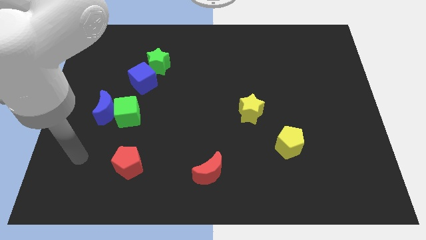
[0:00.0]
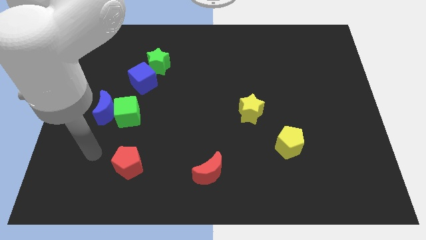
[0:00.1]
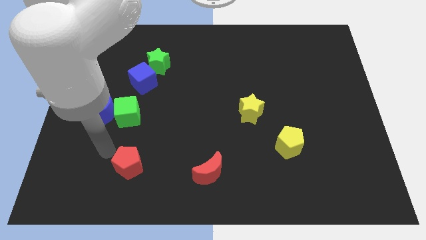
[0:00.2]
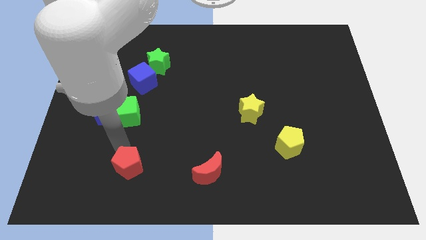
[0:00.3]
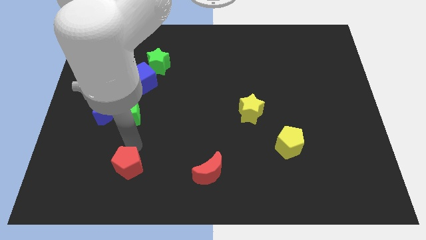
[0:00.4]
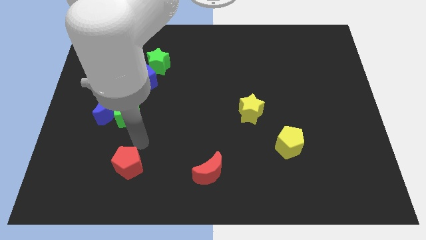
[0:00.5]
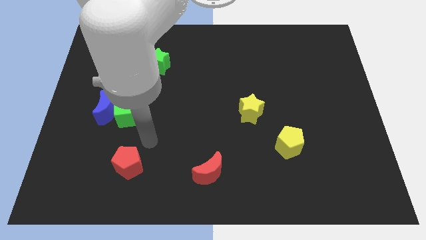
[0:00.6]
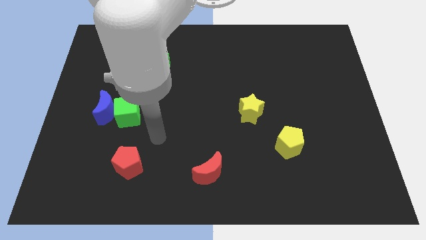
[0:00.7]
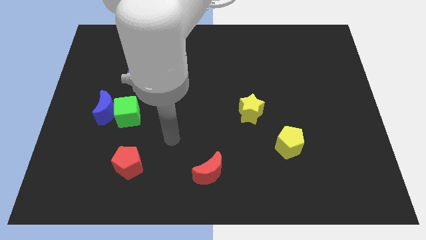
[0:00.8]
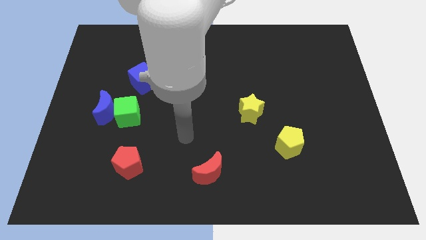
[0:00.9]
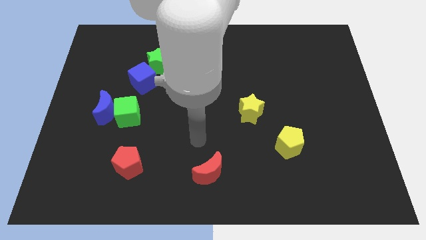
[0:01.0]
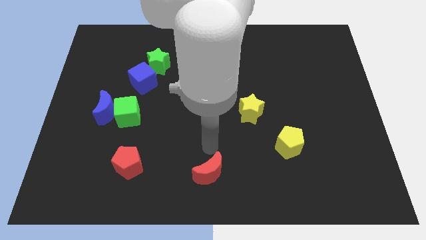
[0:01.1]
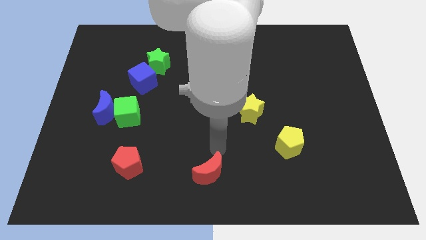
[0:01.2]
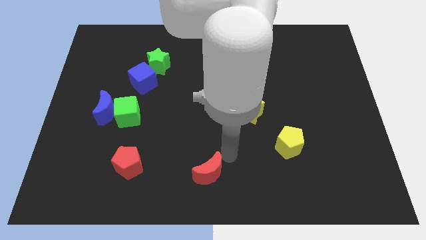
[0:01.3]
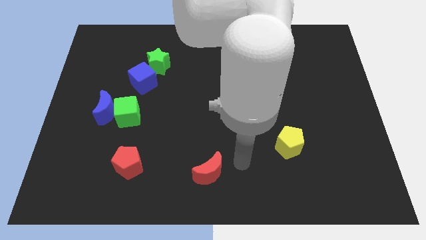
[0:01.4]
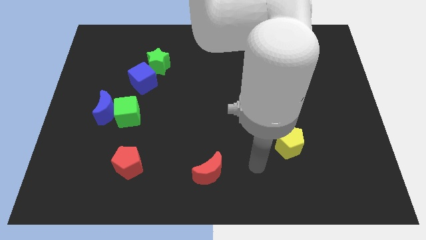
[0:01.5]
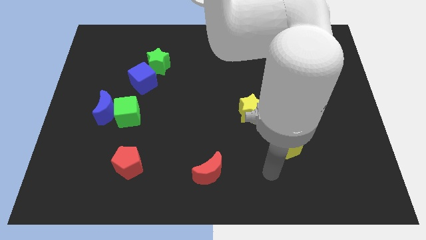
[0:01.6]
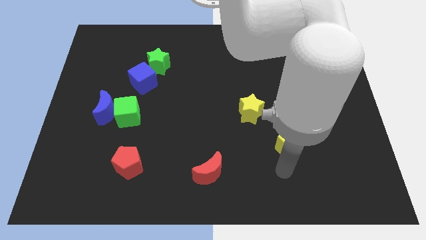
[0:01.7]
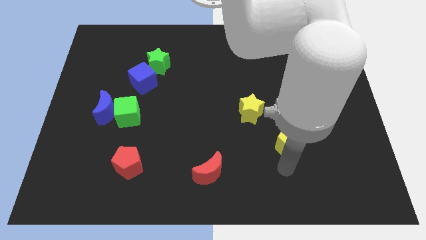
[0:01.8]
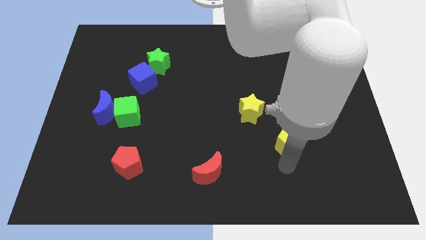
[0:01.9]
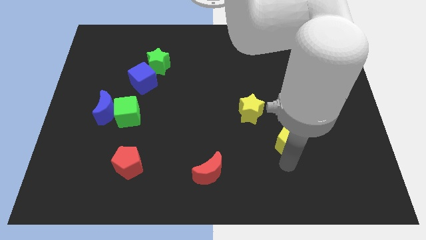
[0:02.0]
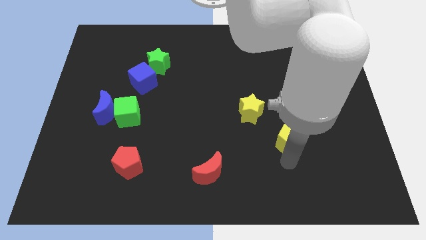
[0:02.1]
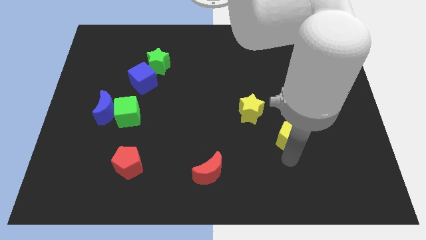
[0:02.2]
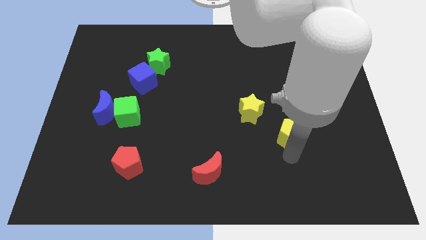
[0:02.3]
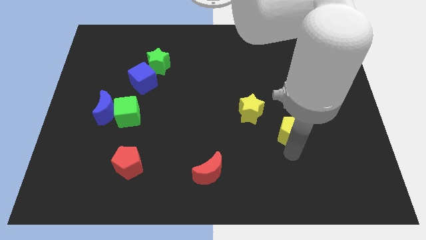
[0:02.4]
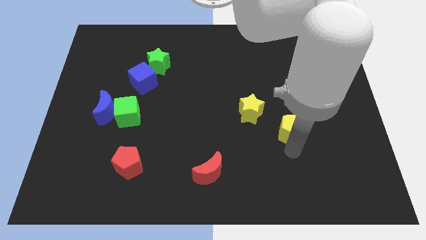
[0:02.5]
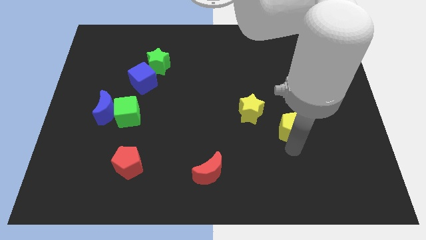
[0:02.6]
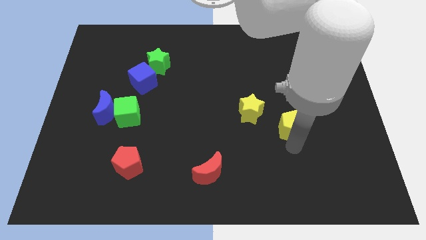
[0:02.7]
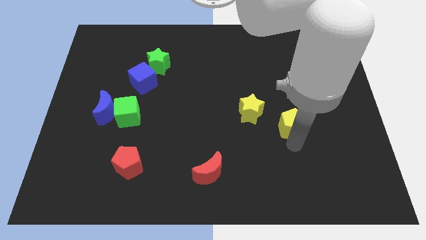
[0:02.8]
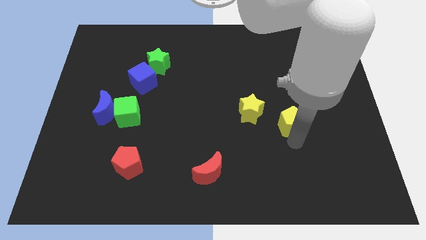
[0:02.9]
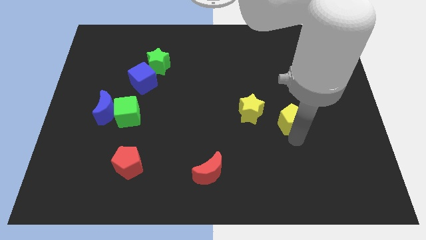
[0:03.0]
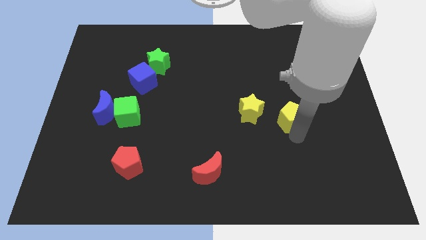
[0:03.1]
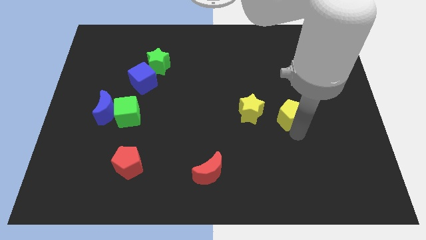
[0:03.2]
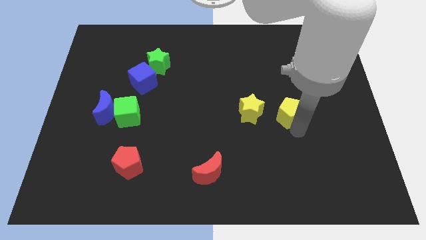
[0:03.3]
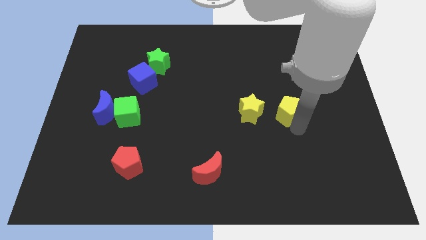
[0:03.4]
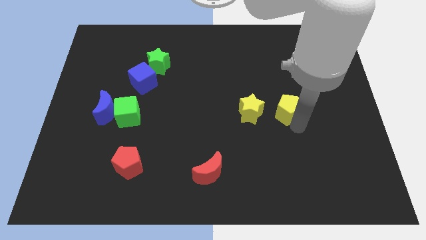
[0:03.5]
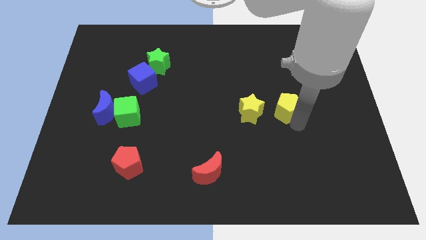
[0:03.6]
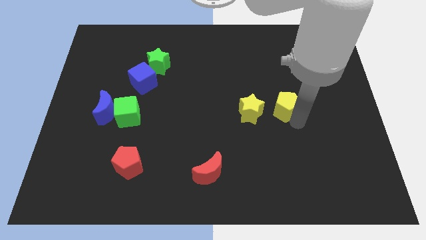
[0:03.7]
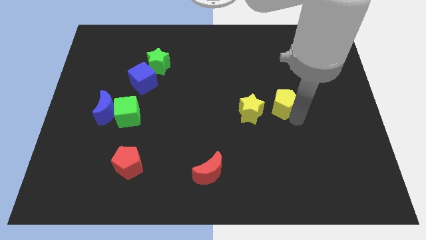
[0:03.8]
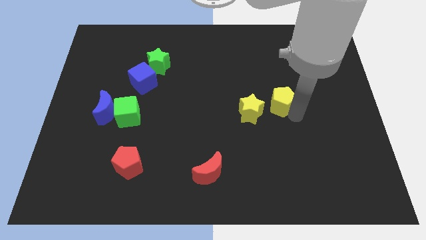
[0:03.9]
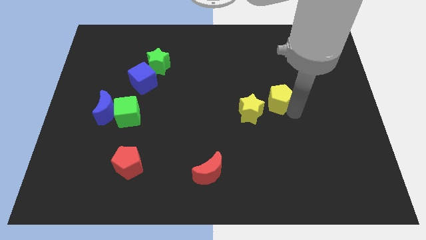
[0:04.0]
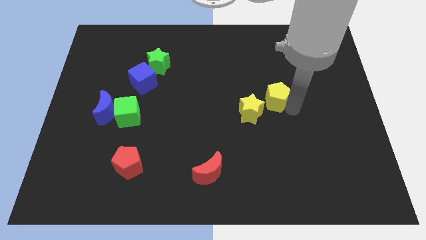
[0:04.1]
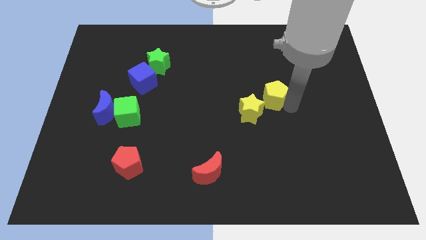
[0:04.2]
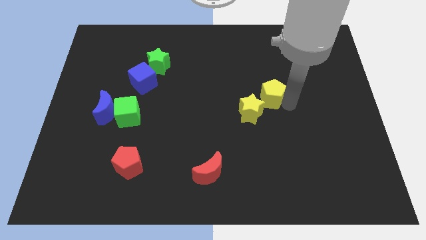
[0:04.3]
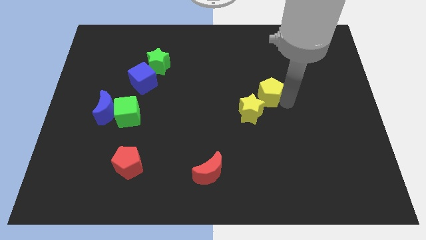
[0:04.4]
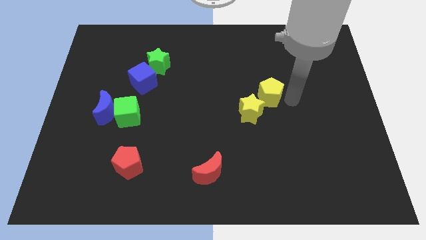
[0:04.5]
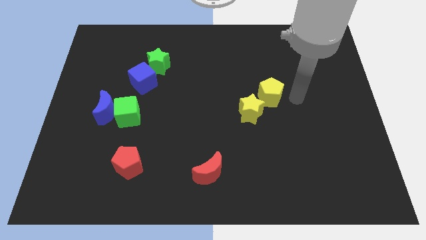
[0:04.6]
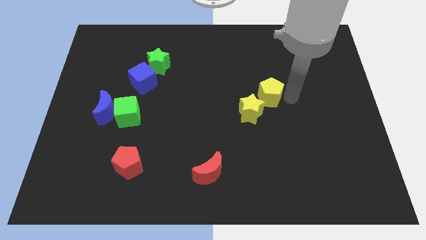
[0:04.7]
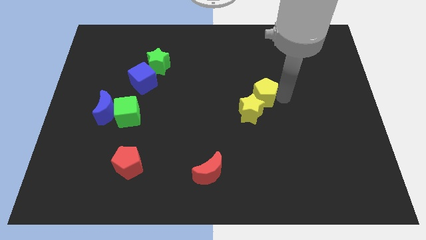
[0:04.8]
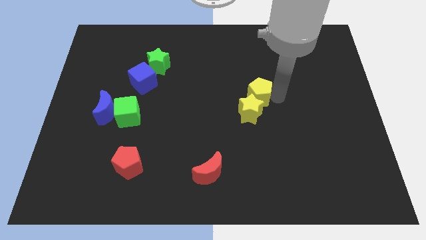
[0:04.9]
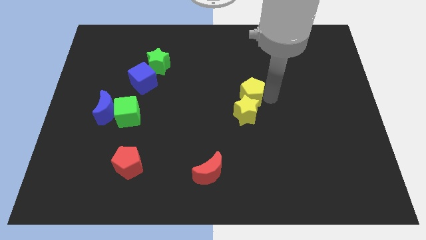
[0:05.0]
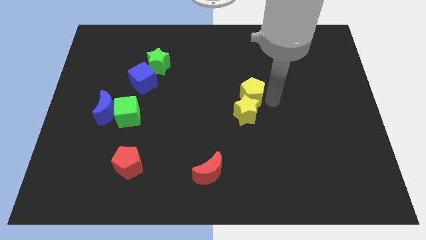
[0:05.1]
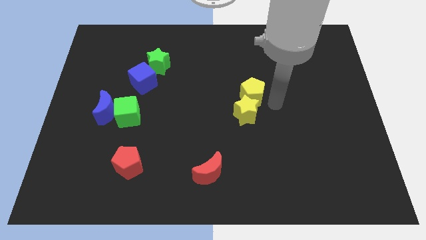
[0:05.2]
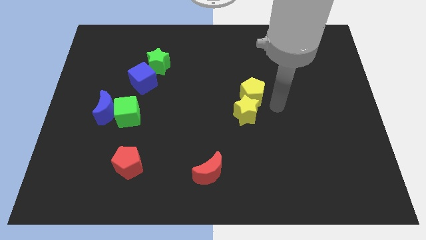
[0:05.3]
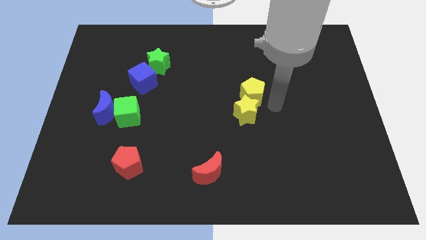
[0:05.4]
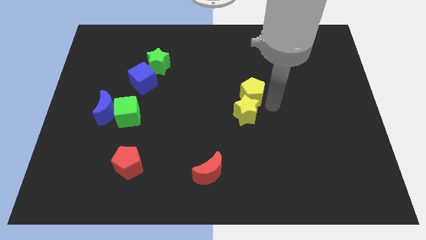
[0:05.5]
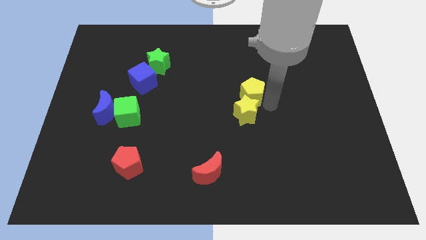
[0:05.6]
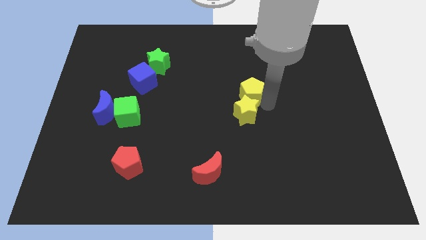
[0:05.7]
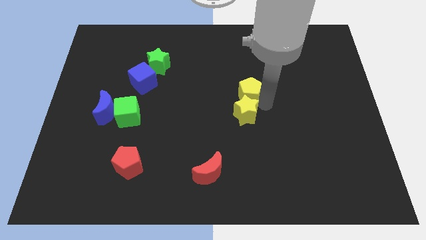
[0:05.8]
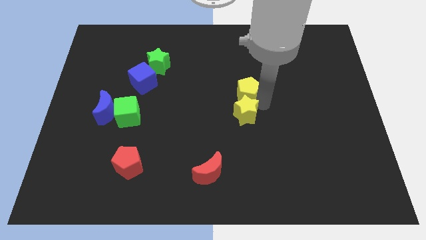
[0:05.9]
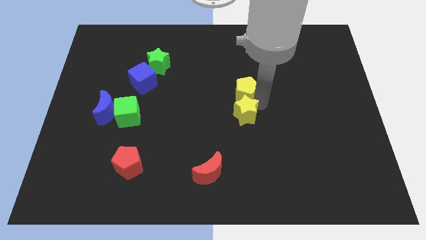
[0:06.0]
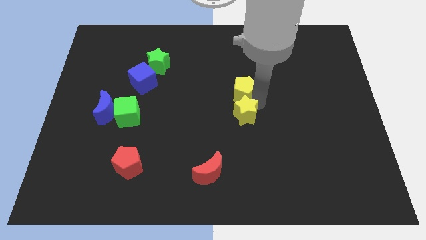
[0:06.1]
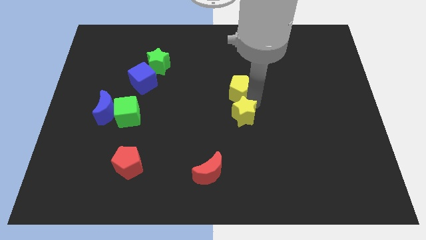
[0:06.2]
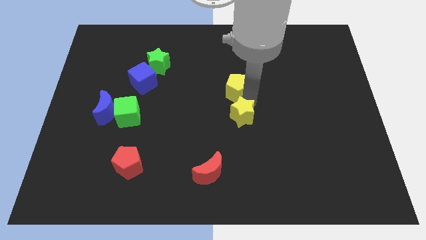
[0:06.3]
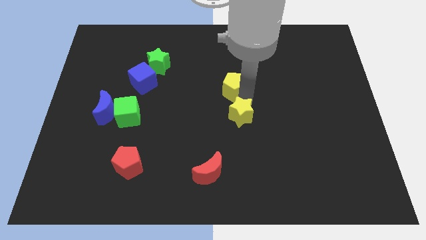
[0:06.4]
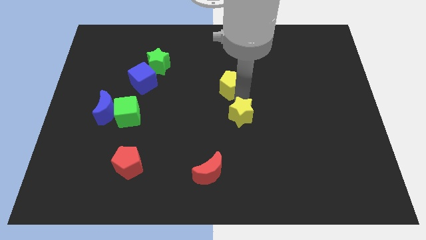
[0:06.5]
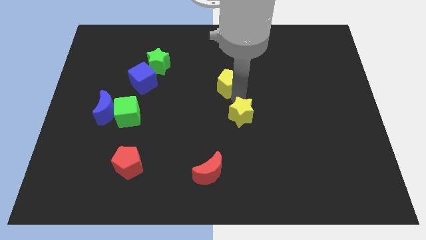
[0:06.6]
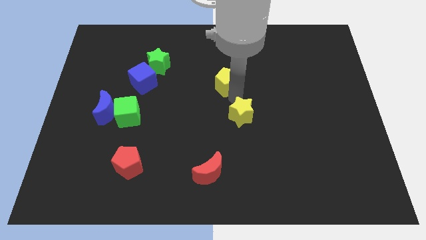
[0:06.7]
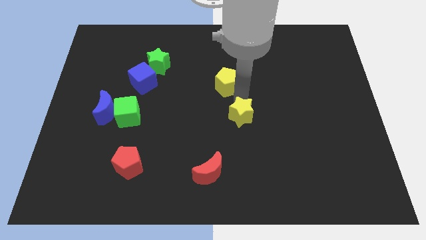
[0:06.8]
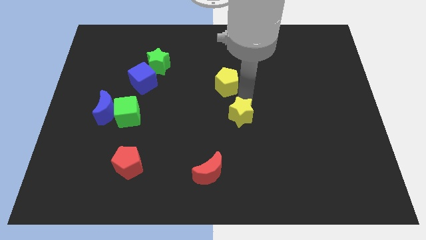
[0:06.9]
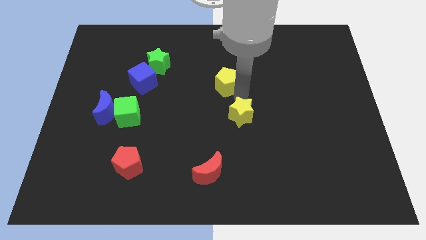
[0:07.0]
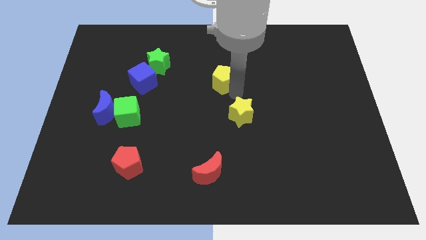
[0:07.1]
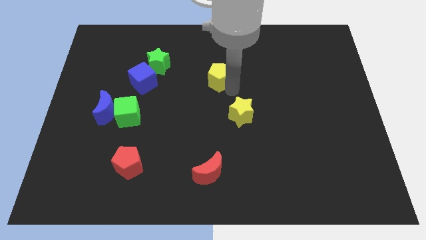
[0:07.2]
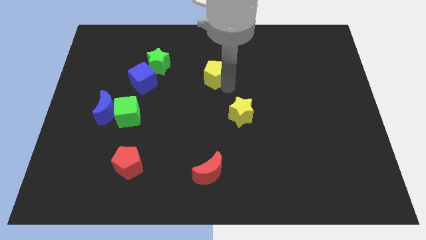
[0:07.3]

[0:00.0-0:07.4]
put the yellow pentagon right of the green star

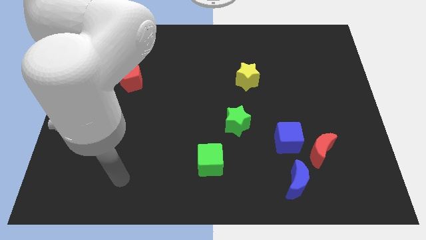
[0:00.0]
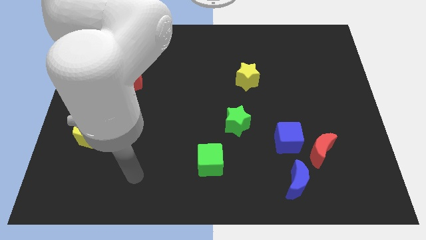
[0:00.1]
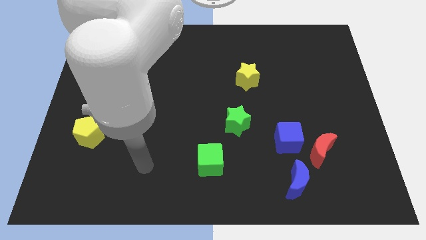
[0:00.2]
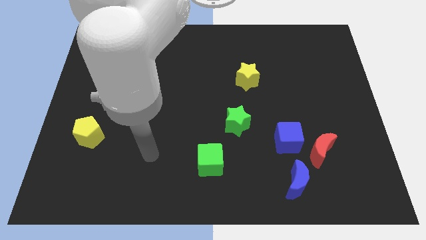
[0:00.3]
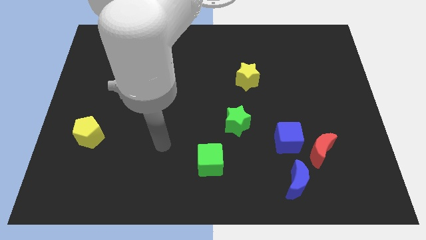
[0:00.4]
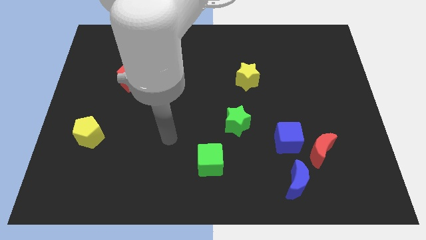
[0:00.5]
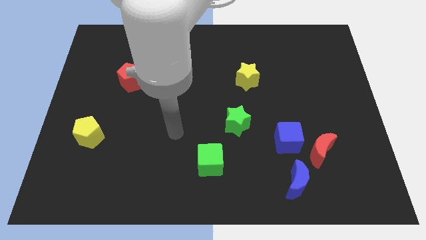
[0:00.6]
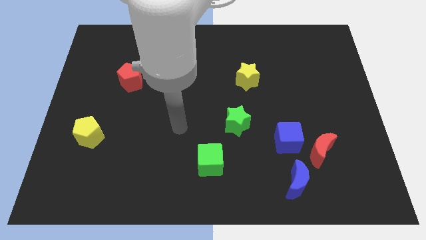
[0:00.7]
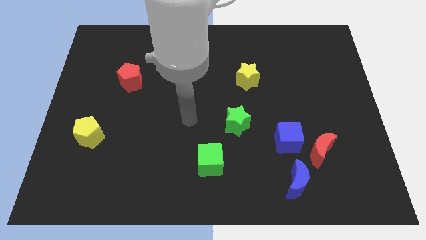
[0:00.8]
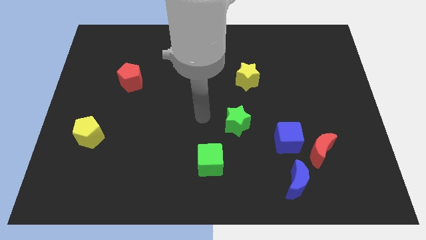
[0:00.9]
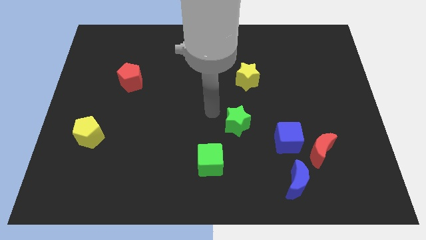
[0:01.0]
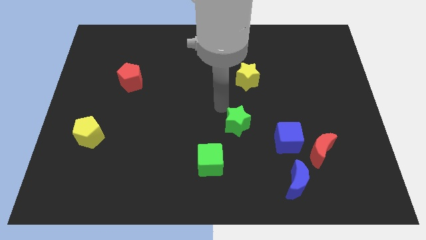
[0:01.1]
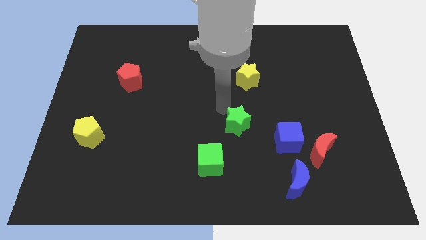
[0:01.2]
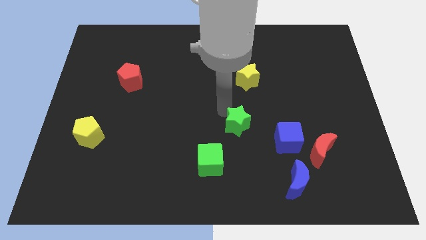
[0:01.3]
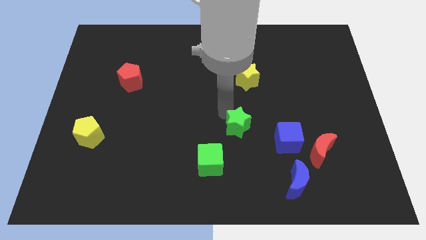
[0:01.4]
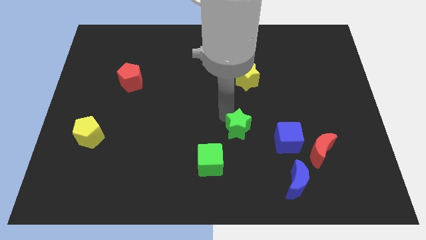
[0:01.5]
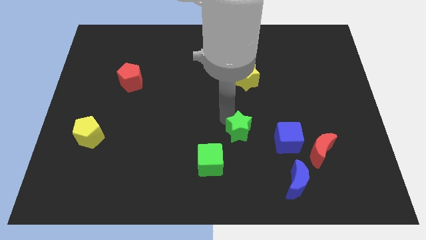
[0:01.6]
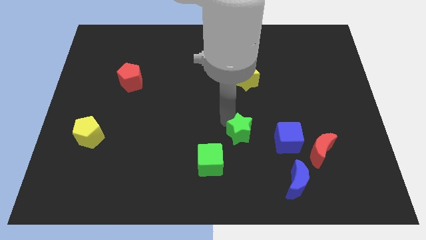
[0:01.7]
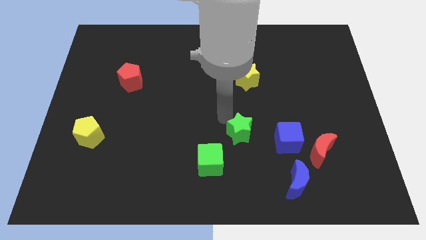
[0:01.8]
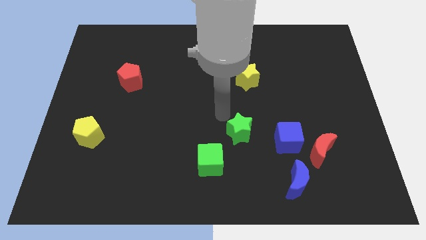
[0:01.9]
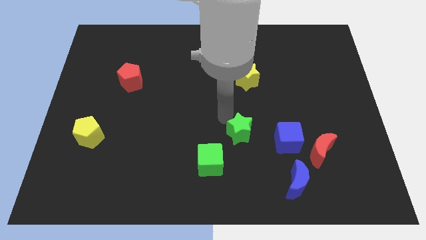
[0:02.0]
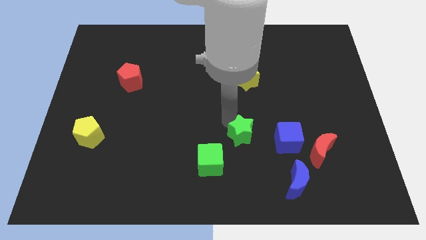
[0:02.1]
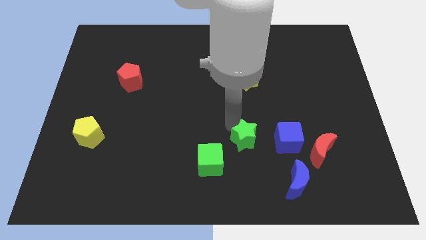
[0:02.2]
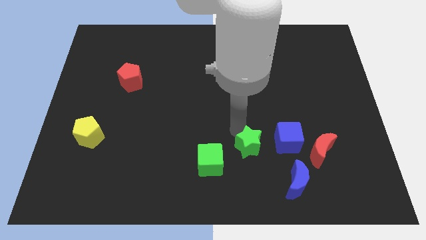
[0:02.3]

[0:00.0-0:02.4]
slide the green star to the bottom left side of the blue cube
